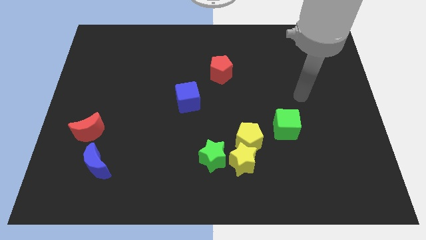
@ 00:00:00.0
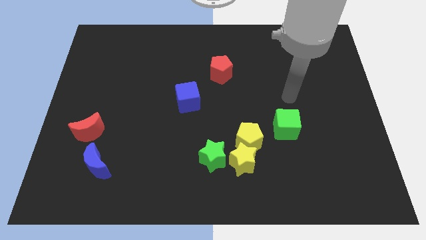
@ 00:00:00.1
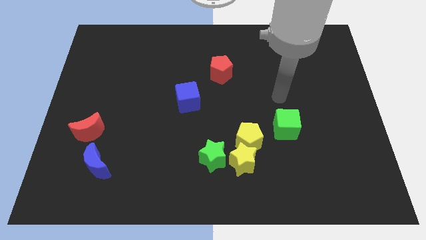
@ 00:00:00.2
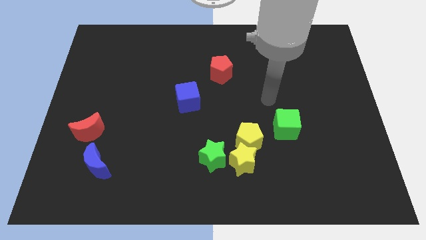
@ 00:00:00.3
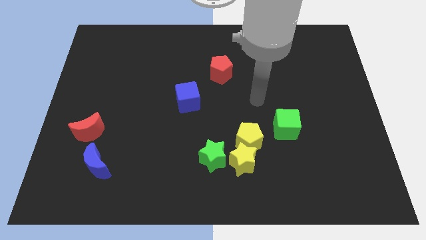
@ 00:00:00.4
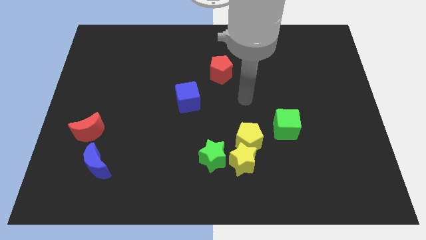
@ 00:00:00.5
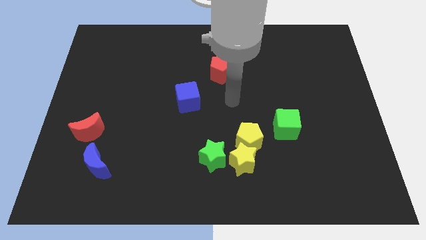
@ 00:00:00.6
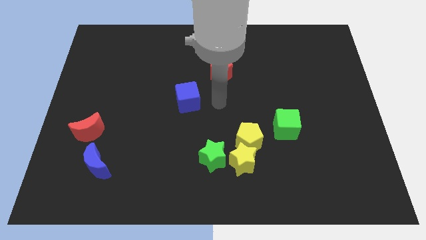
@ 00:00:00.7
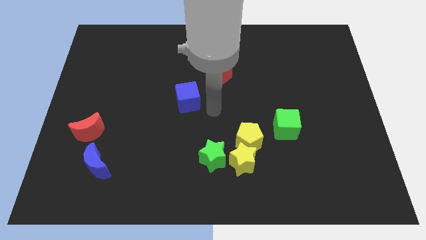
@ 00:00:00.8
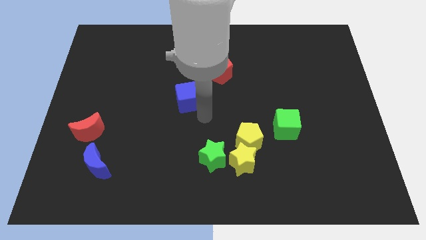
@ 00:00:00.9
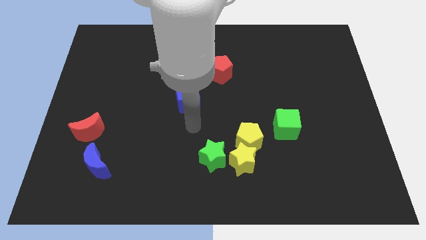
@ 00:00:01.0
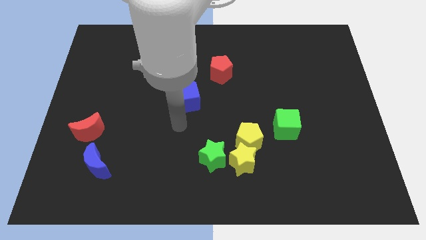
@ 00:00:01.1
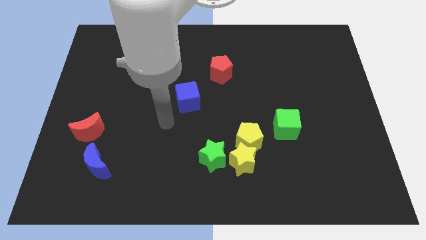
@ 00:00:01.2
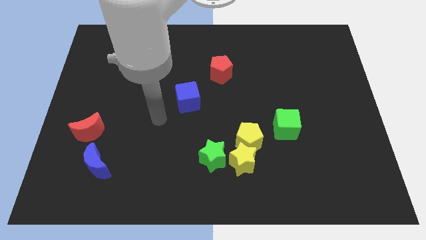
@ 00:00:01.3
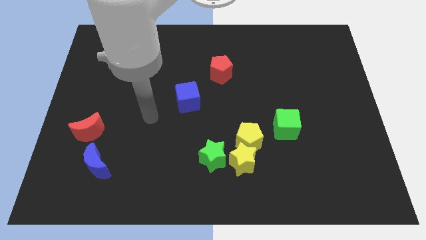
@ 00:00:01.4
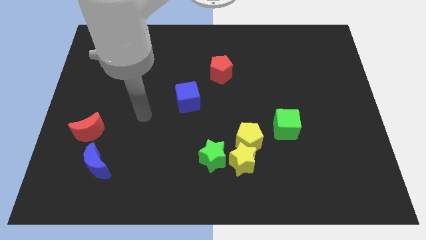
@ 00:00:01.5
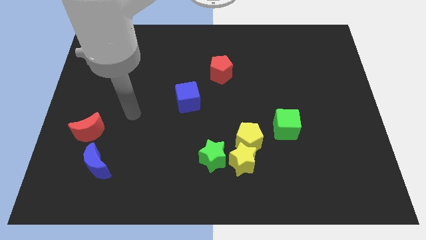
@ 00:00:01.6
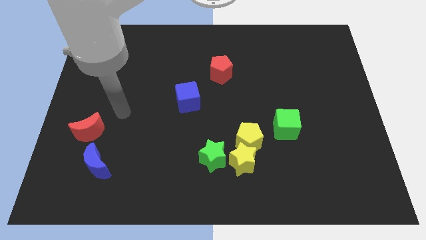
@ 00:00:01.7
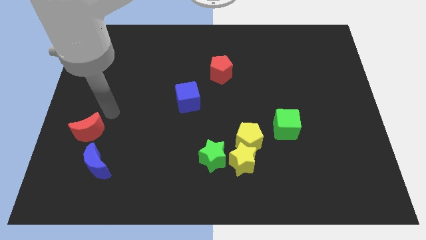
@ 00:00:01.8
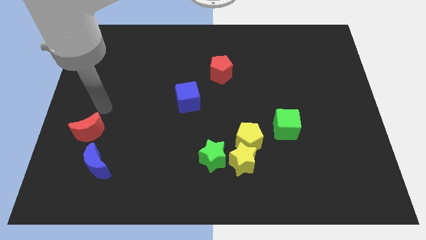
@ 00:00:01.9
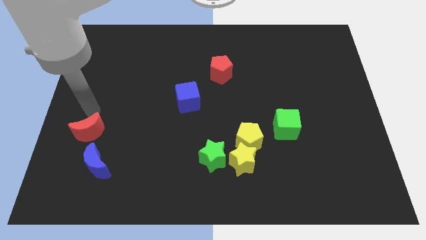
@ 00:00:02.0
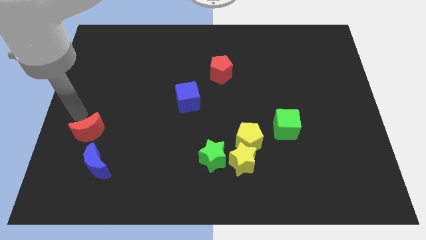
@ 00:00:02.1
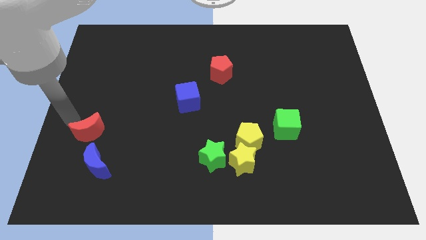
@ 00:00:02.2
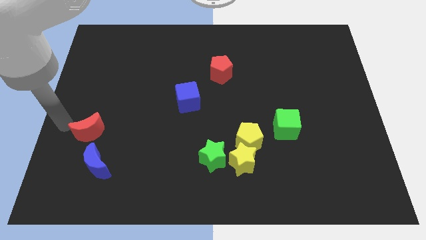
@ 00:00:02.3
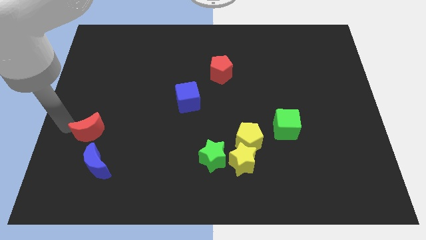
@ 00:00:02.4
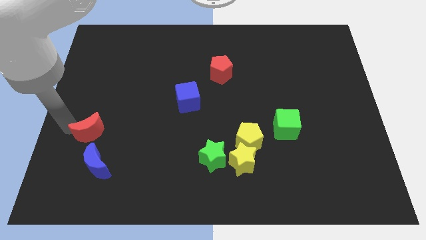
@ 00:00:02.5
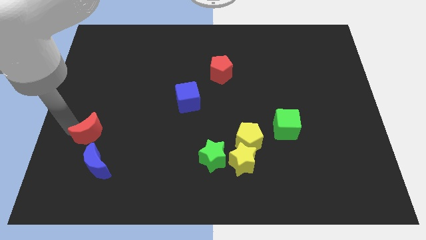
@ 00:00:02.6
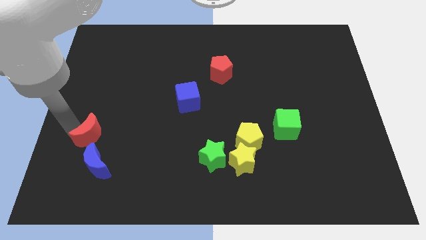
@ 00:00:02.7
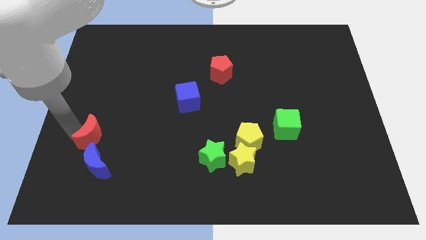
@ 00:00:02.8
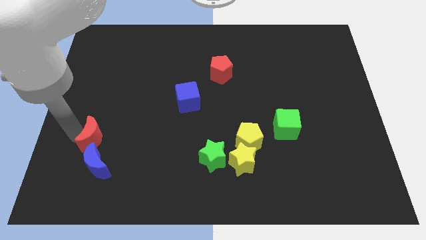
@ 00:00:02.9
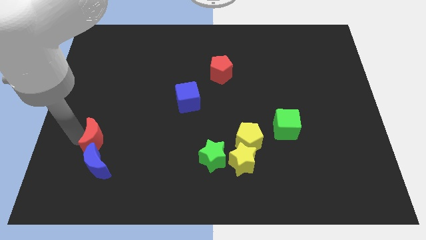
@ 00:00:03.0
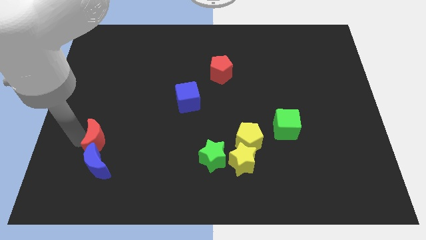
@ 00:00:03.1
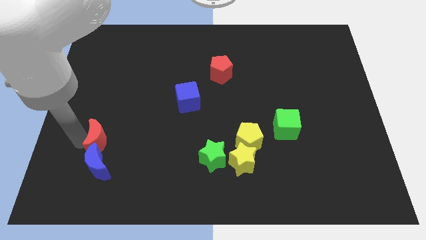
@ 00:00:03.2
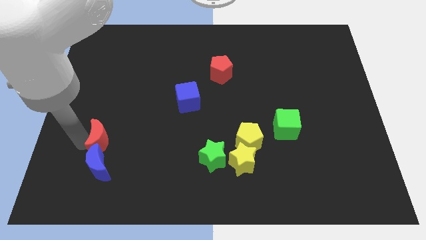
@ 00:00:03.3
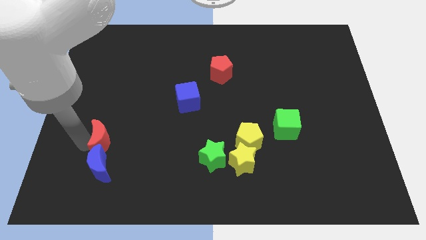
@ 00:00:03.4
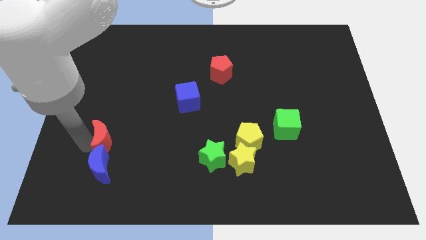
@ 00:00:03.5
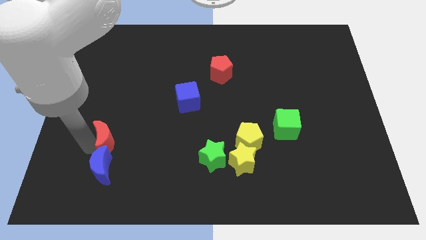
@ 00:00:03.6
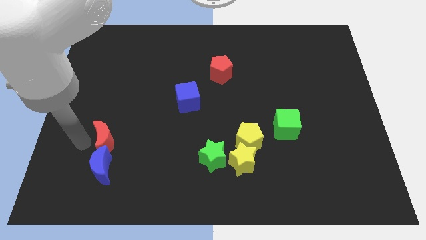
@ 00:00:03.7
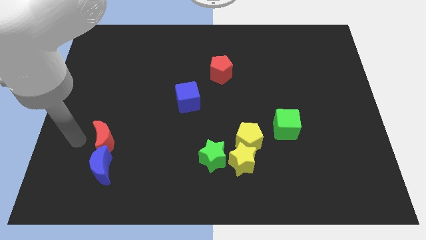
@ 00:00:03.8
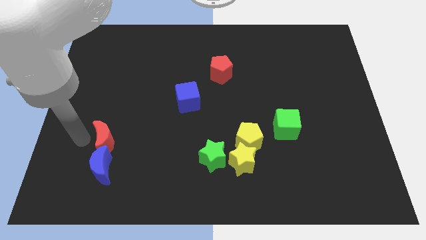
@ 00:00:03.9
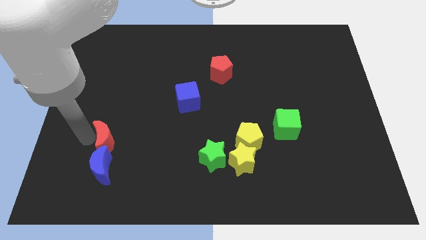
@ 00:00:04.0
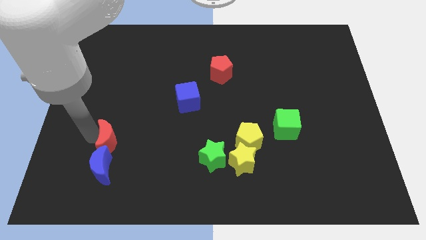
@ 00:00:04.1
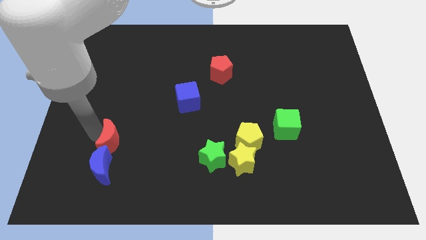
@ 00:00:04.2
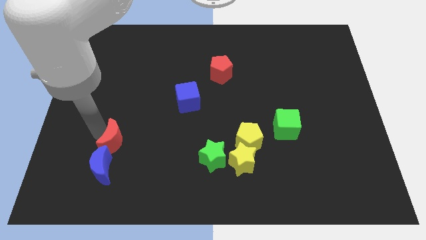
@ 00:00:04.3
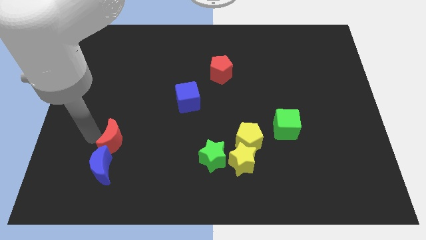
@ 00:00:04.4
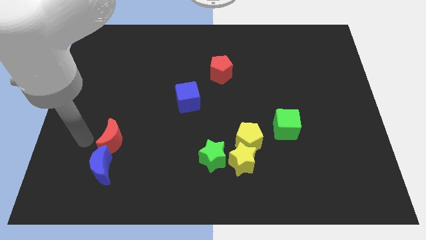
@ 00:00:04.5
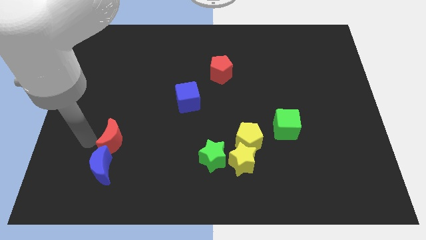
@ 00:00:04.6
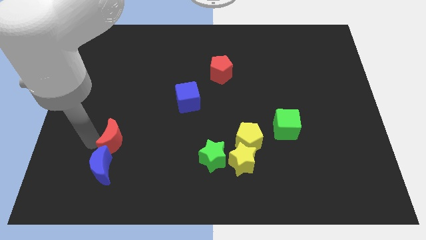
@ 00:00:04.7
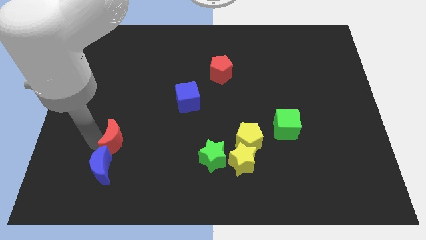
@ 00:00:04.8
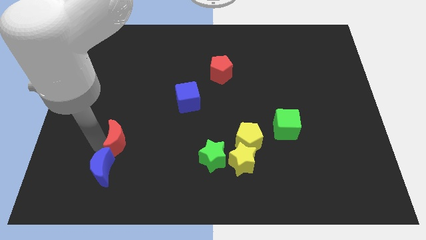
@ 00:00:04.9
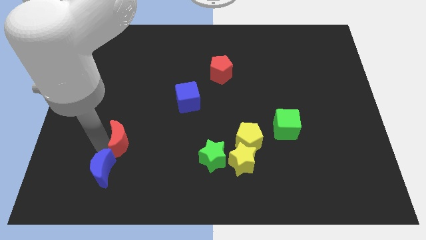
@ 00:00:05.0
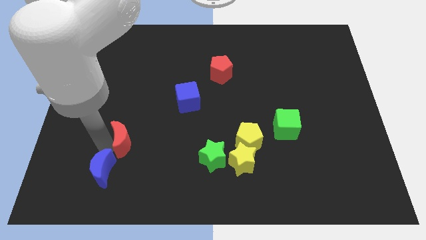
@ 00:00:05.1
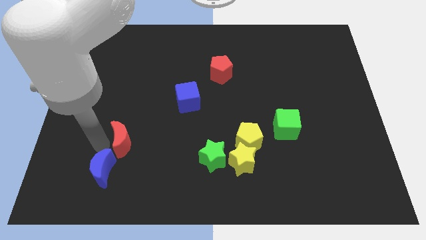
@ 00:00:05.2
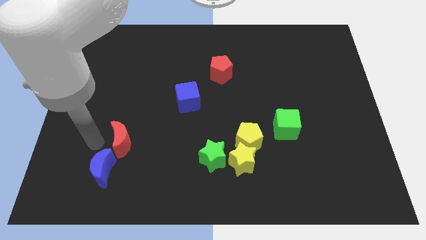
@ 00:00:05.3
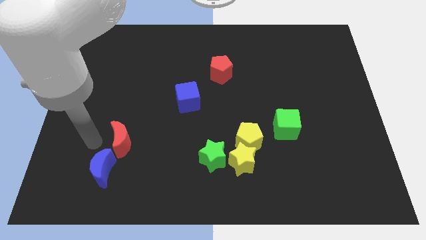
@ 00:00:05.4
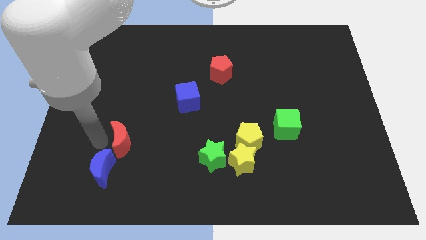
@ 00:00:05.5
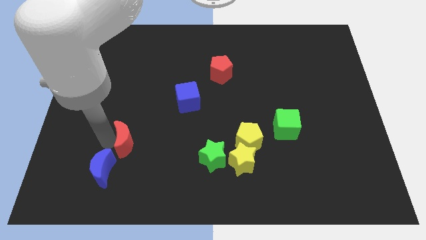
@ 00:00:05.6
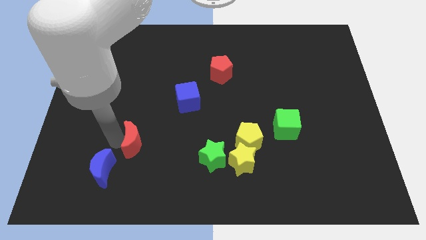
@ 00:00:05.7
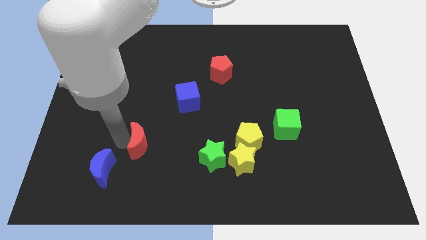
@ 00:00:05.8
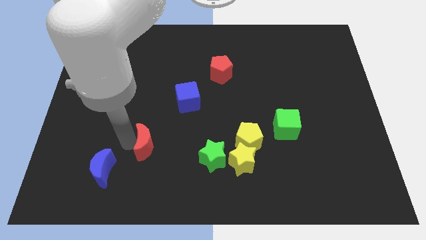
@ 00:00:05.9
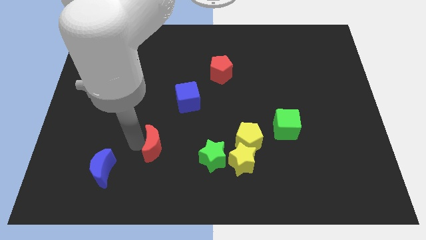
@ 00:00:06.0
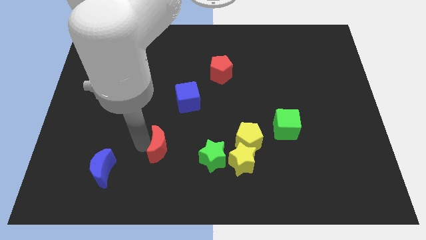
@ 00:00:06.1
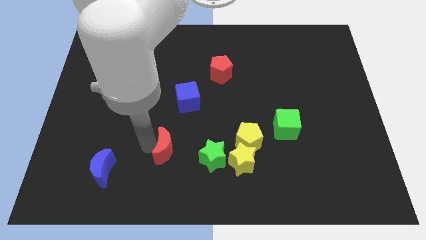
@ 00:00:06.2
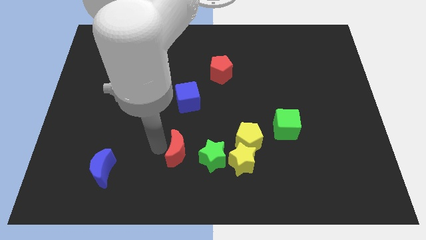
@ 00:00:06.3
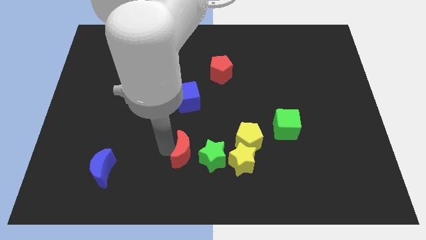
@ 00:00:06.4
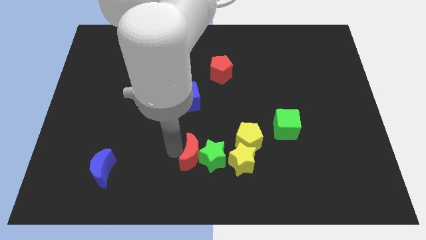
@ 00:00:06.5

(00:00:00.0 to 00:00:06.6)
put the red moon close to the green star

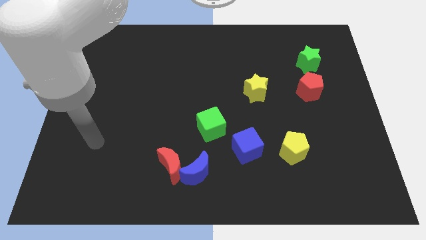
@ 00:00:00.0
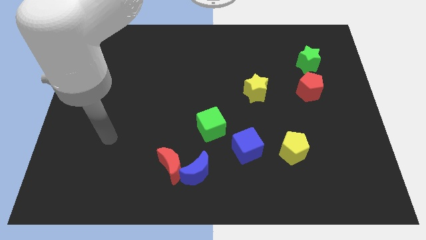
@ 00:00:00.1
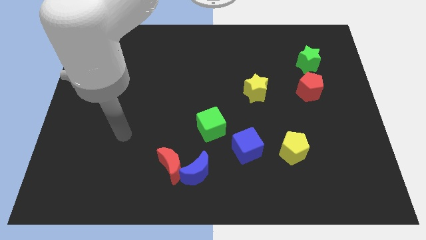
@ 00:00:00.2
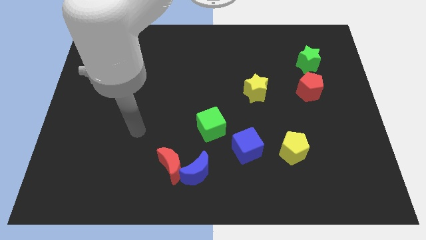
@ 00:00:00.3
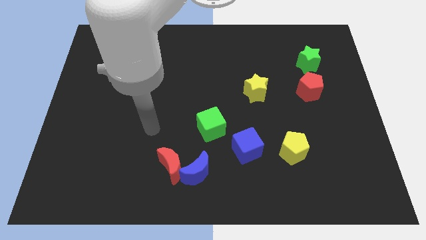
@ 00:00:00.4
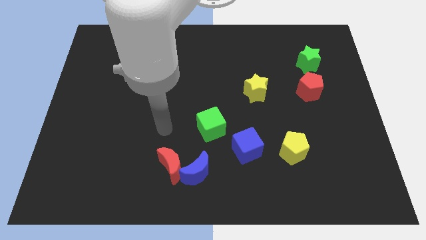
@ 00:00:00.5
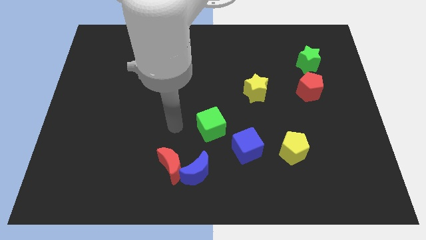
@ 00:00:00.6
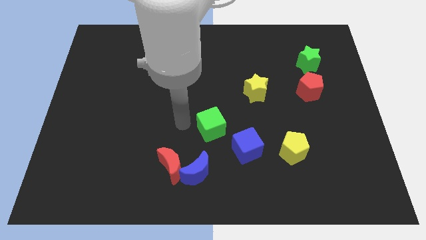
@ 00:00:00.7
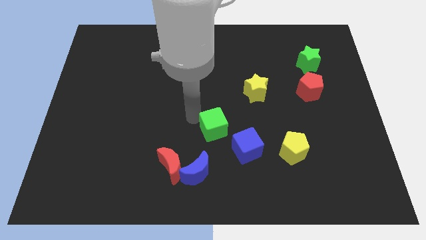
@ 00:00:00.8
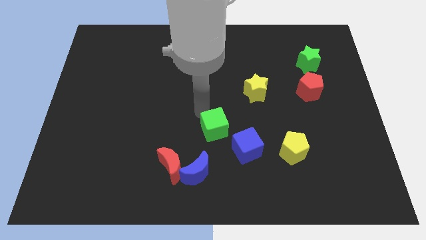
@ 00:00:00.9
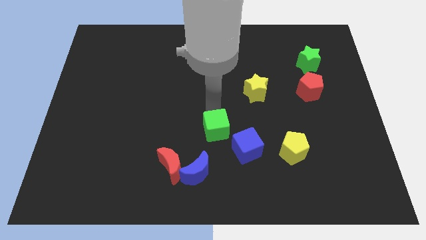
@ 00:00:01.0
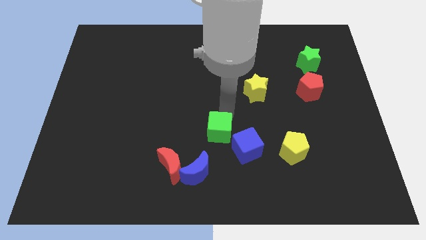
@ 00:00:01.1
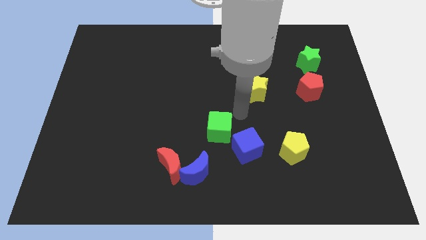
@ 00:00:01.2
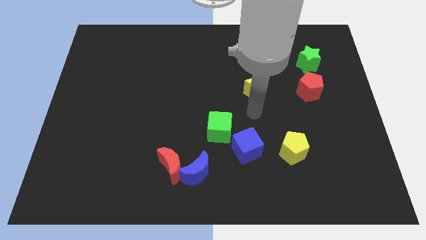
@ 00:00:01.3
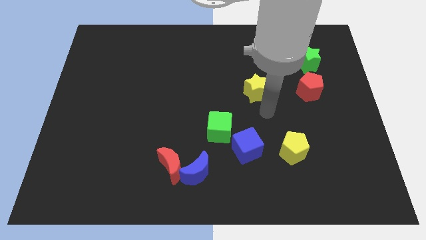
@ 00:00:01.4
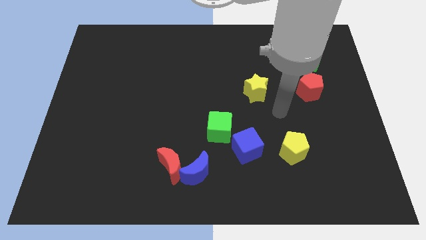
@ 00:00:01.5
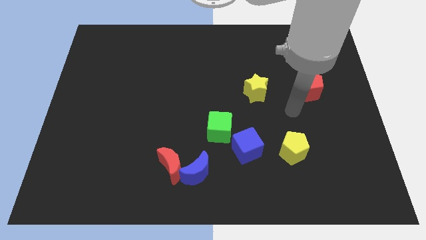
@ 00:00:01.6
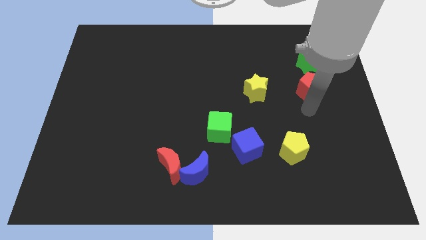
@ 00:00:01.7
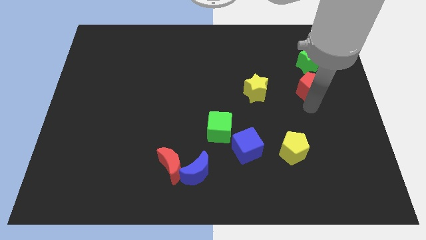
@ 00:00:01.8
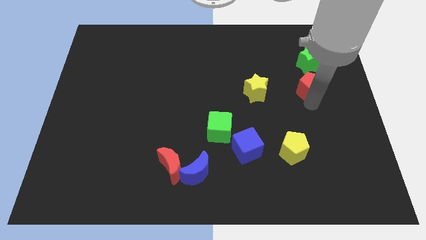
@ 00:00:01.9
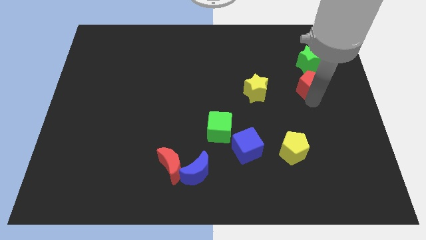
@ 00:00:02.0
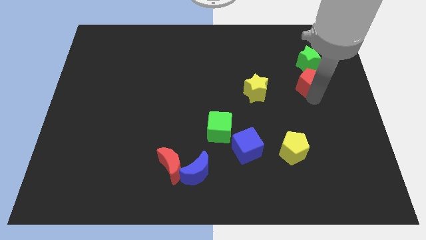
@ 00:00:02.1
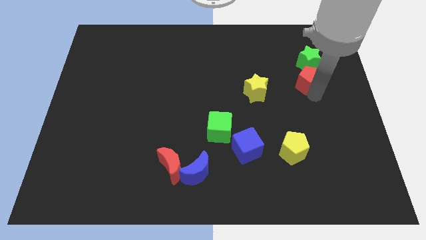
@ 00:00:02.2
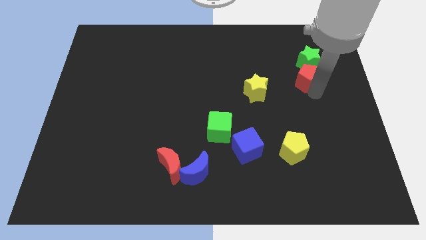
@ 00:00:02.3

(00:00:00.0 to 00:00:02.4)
put the red pentagon to the green star
